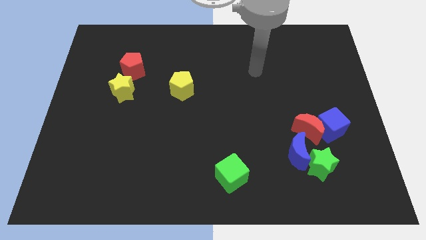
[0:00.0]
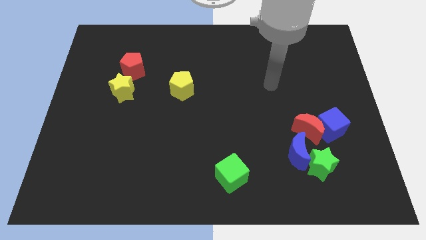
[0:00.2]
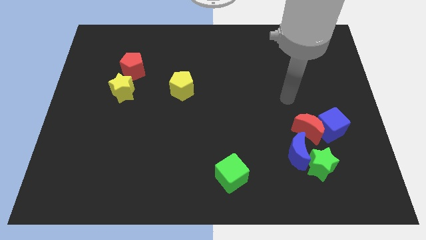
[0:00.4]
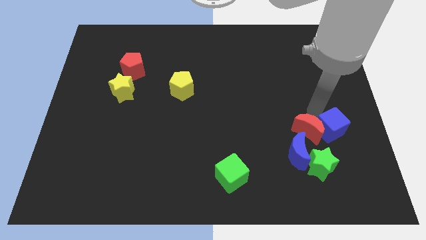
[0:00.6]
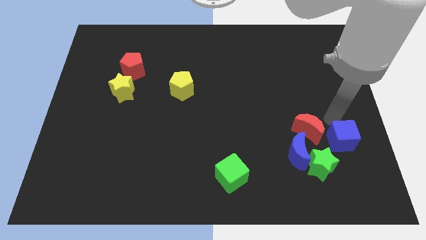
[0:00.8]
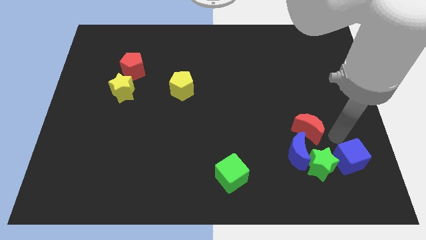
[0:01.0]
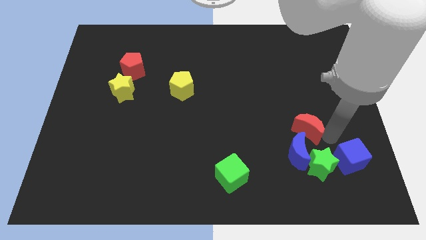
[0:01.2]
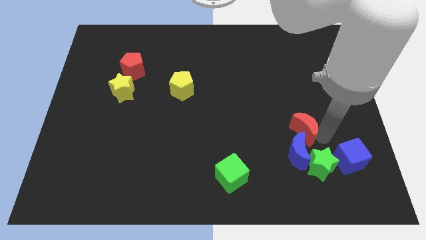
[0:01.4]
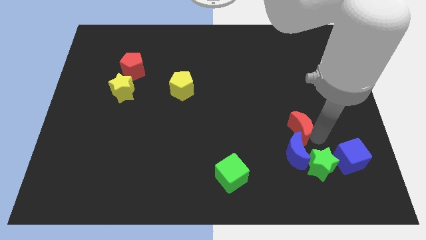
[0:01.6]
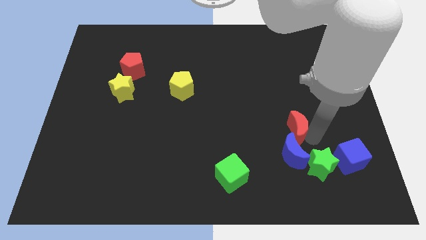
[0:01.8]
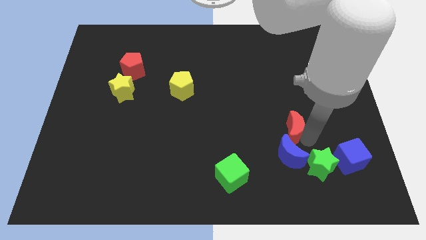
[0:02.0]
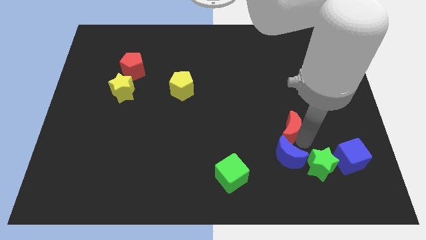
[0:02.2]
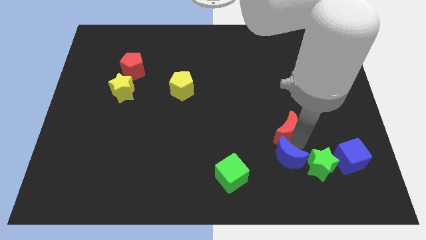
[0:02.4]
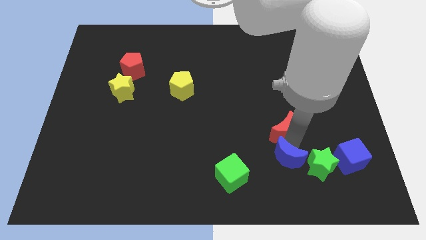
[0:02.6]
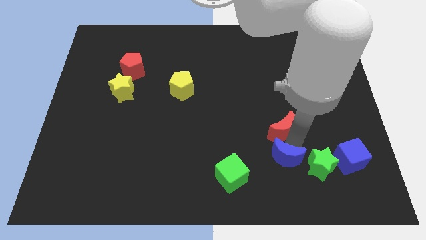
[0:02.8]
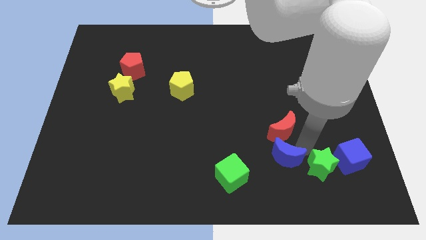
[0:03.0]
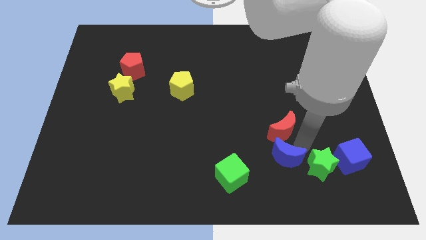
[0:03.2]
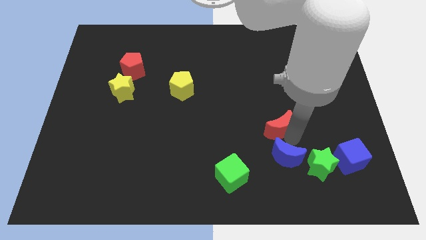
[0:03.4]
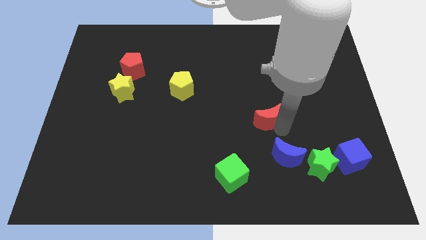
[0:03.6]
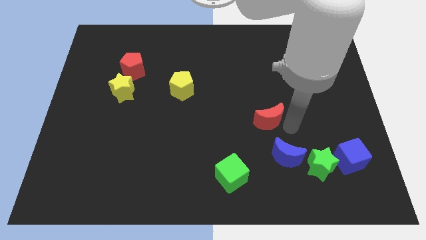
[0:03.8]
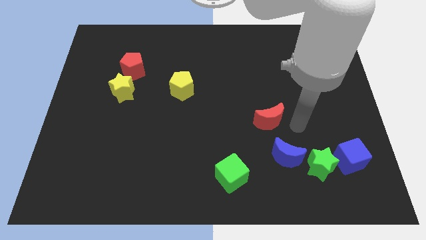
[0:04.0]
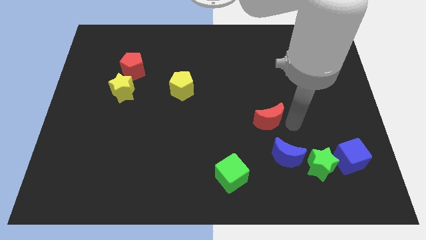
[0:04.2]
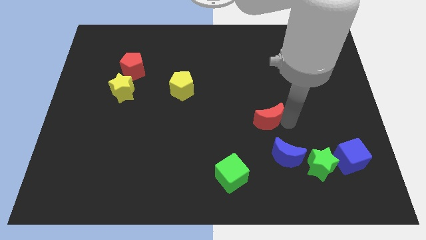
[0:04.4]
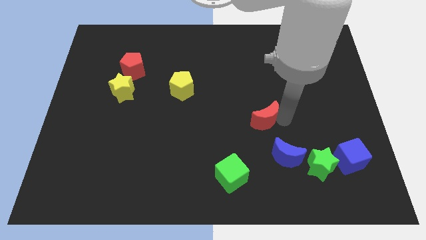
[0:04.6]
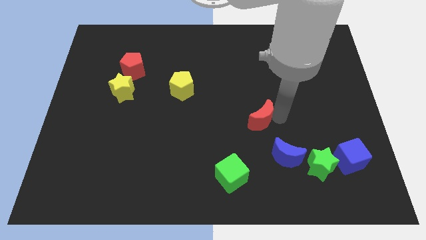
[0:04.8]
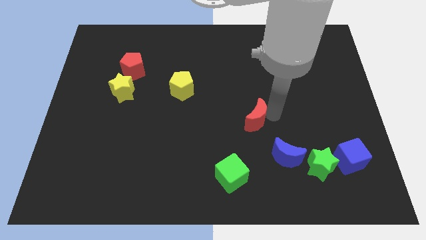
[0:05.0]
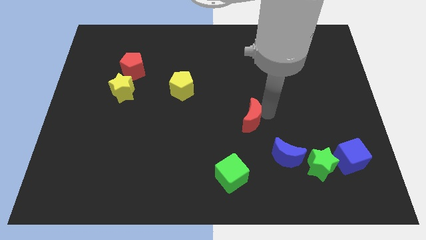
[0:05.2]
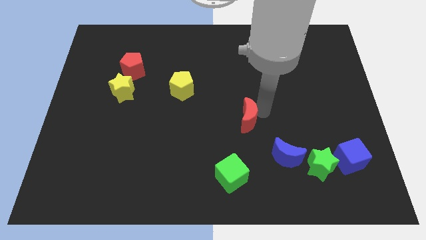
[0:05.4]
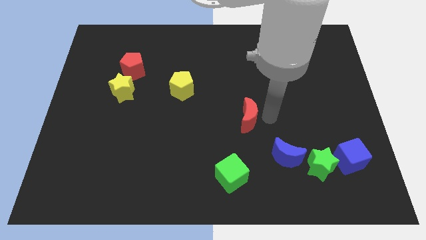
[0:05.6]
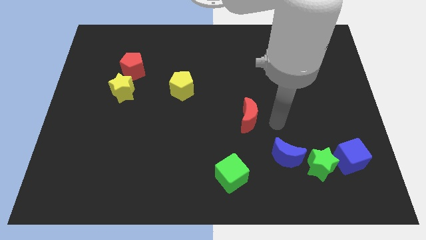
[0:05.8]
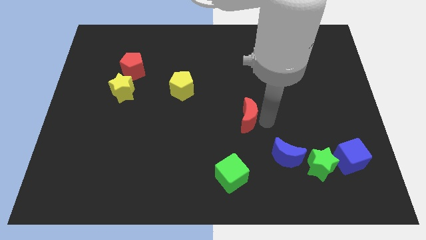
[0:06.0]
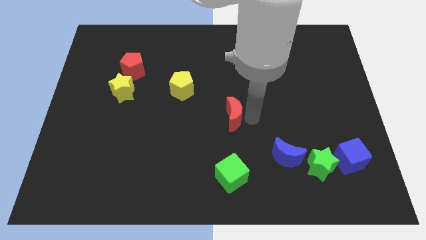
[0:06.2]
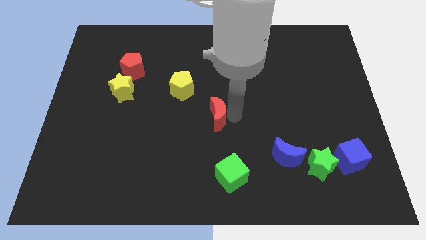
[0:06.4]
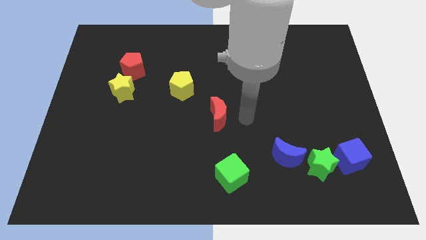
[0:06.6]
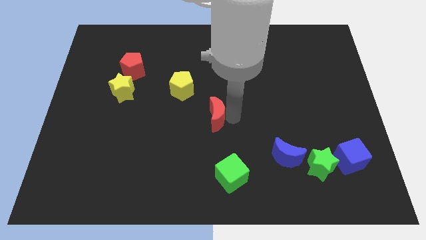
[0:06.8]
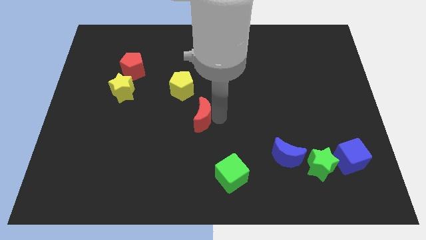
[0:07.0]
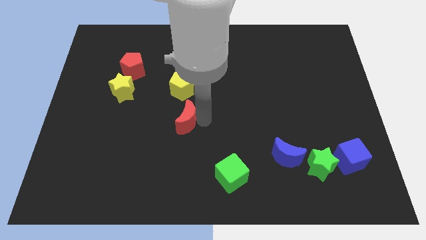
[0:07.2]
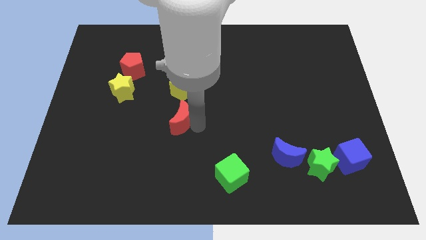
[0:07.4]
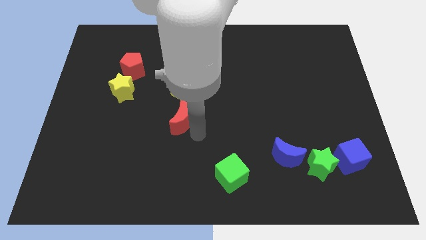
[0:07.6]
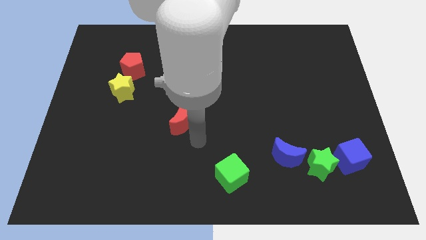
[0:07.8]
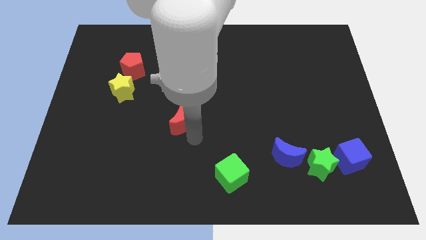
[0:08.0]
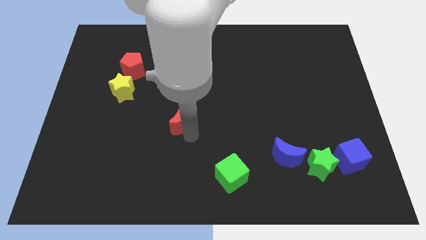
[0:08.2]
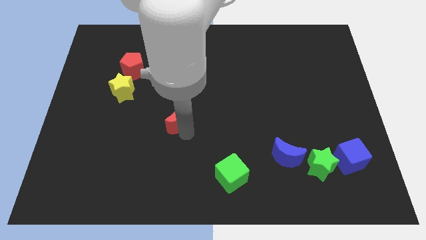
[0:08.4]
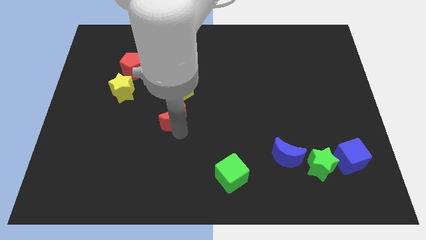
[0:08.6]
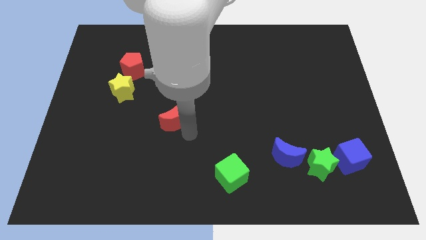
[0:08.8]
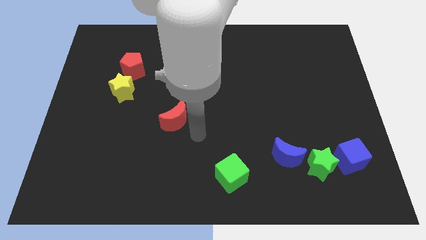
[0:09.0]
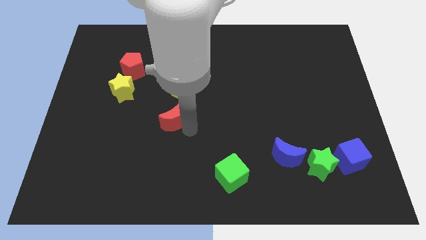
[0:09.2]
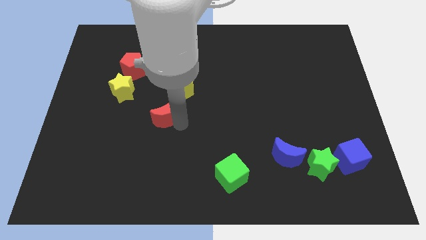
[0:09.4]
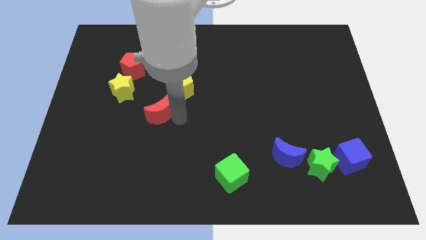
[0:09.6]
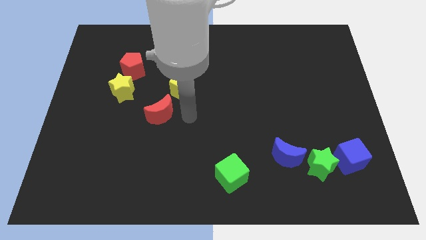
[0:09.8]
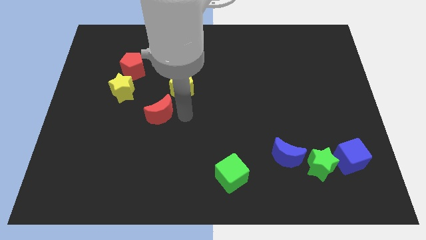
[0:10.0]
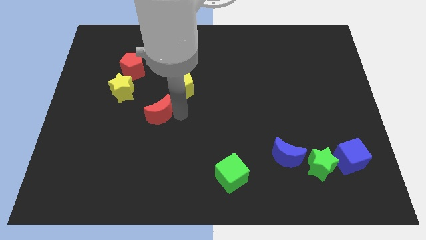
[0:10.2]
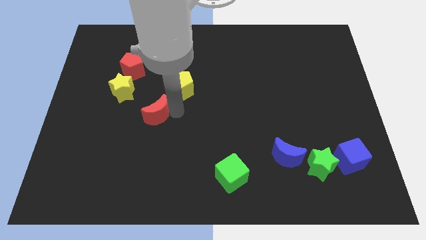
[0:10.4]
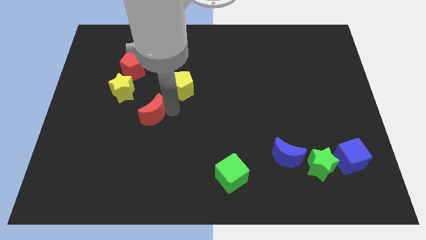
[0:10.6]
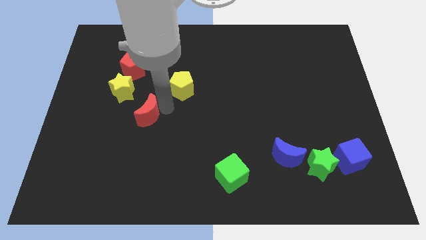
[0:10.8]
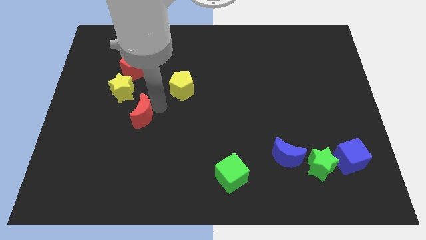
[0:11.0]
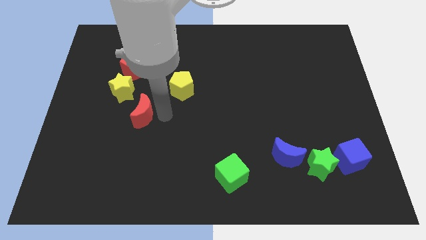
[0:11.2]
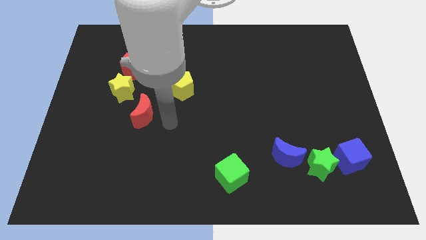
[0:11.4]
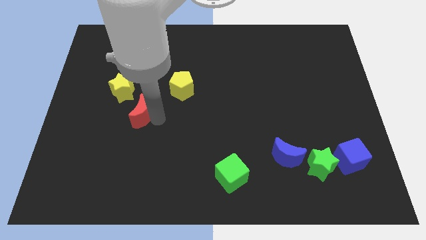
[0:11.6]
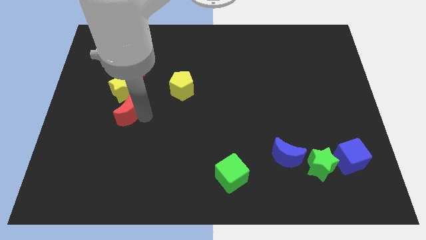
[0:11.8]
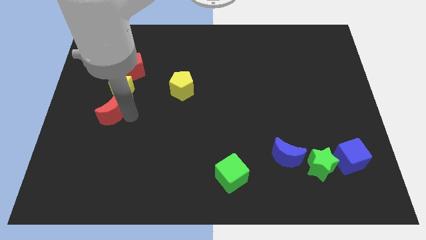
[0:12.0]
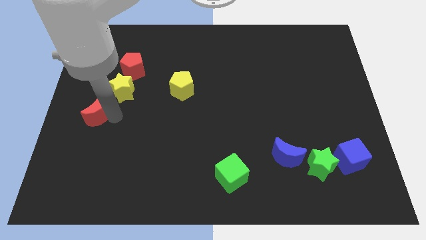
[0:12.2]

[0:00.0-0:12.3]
move the red moon to the center left
